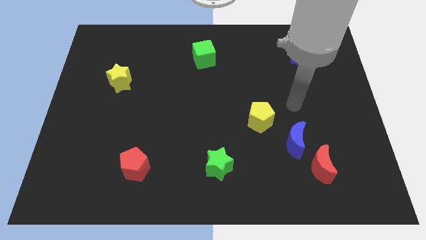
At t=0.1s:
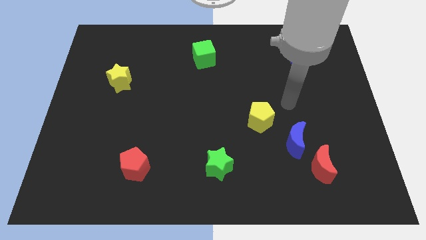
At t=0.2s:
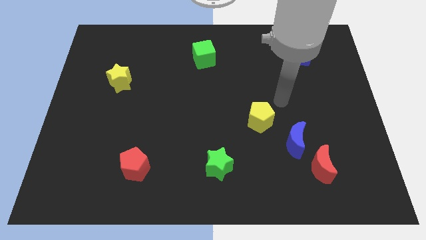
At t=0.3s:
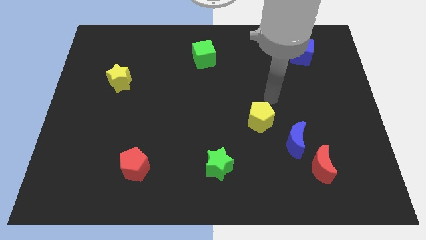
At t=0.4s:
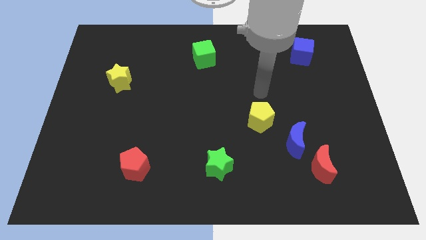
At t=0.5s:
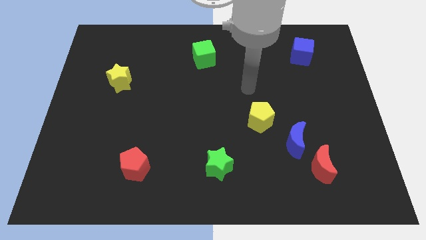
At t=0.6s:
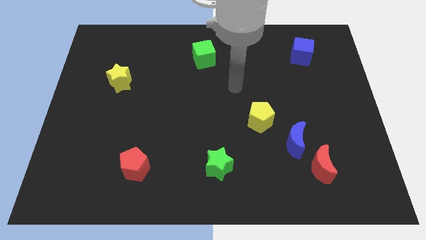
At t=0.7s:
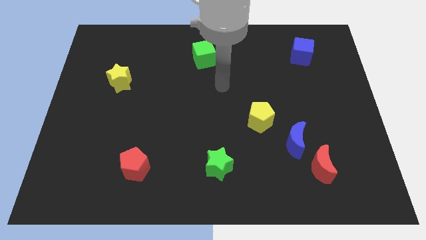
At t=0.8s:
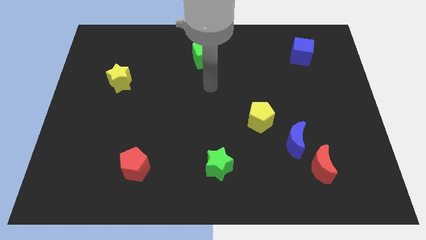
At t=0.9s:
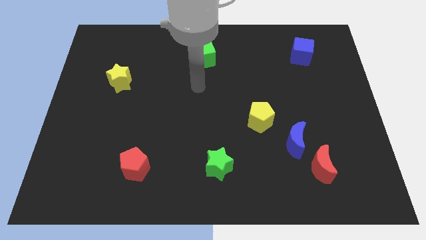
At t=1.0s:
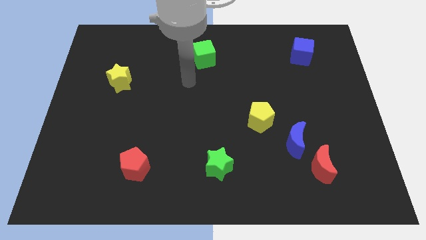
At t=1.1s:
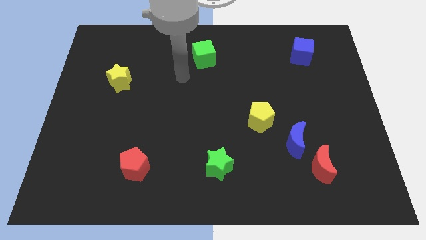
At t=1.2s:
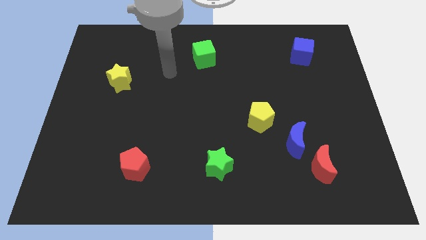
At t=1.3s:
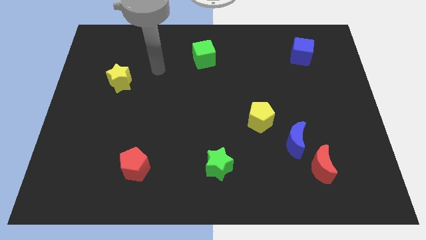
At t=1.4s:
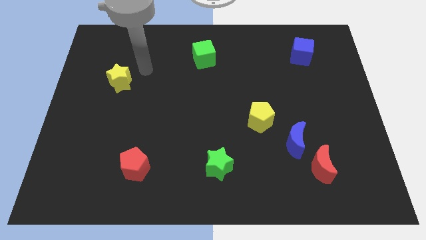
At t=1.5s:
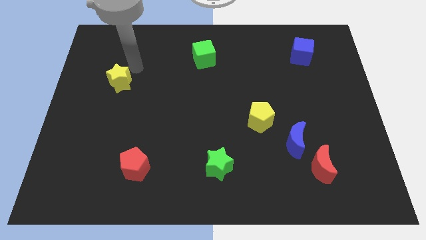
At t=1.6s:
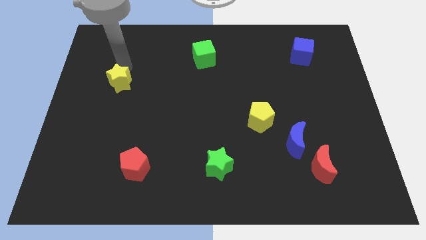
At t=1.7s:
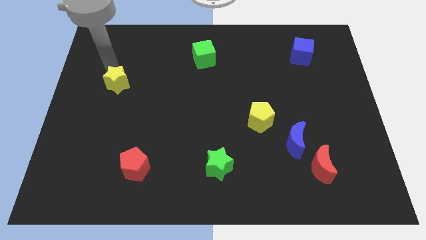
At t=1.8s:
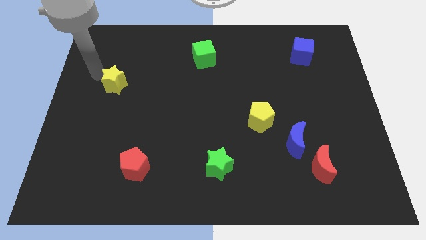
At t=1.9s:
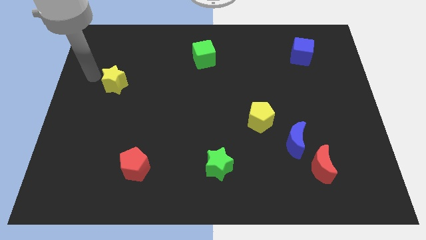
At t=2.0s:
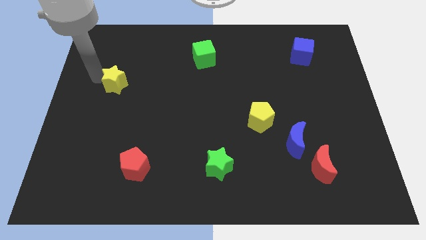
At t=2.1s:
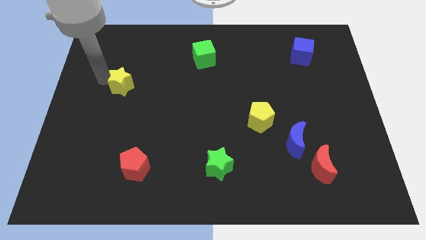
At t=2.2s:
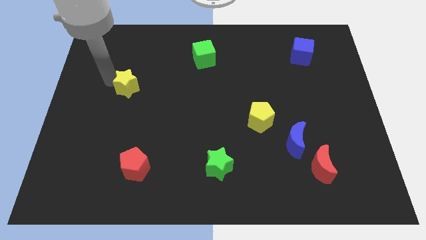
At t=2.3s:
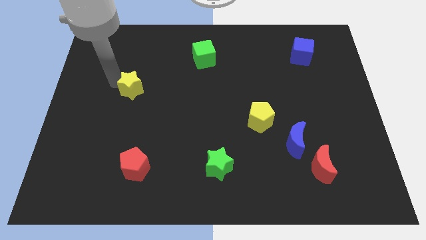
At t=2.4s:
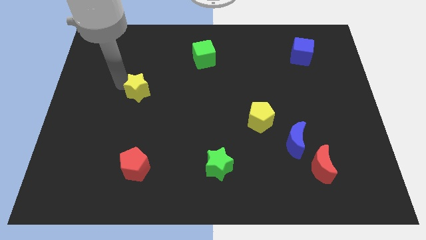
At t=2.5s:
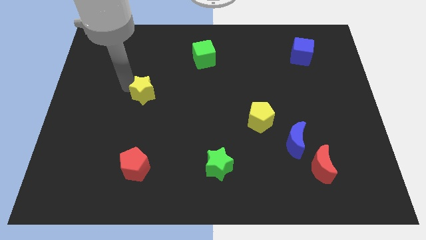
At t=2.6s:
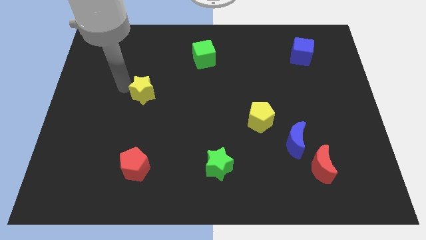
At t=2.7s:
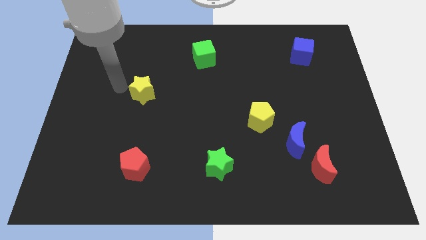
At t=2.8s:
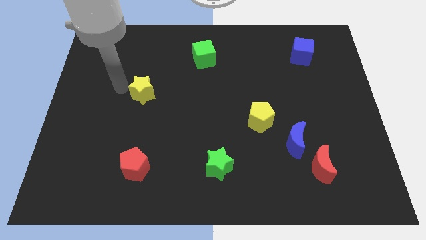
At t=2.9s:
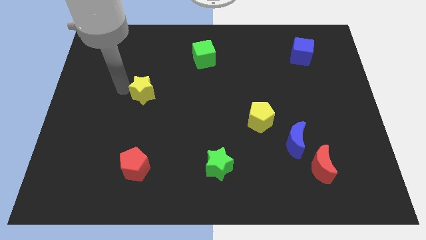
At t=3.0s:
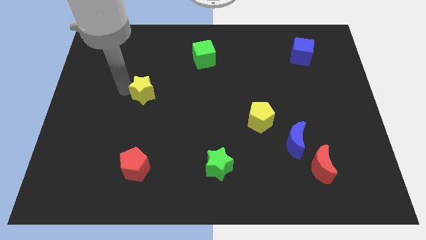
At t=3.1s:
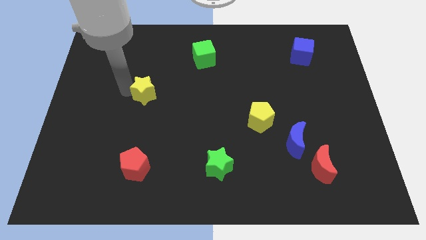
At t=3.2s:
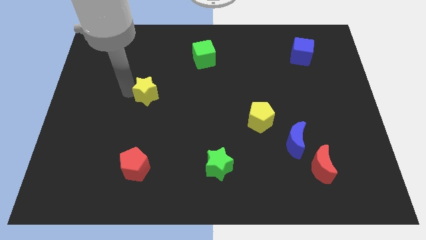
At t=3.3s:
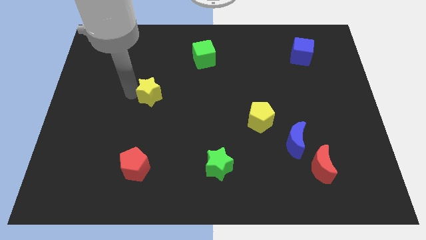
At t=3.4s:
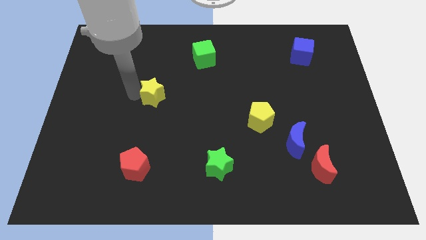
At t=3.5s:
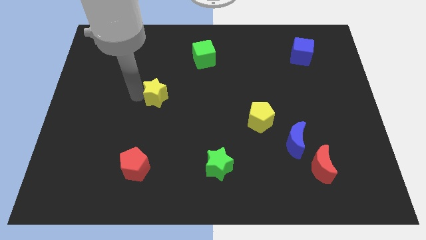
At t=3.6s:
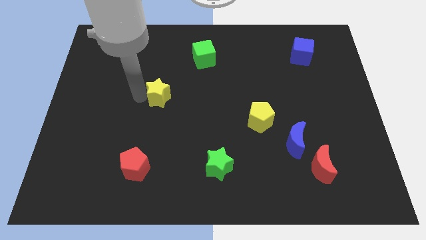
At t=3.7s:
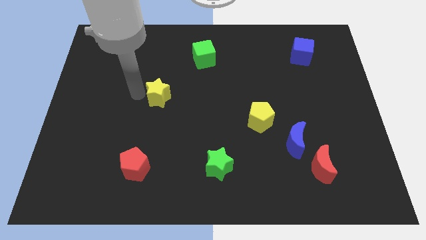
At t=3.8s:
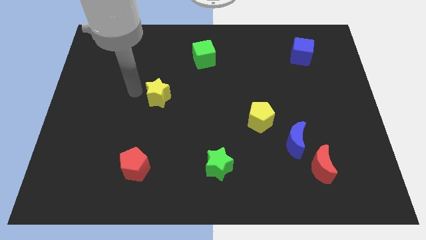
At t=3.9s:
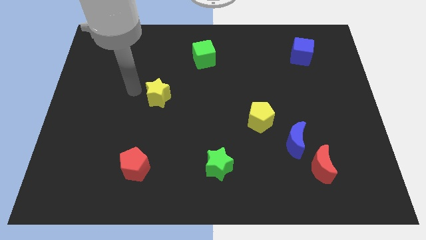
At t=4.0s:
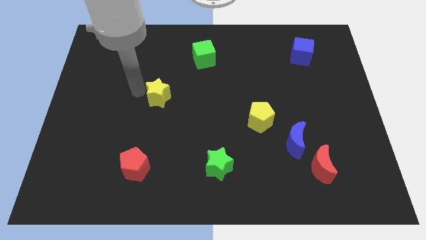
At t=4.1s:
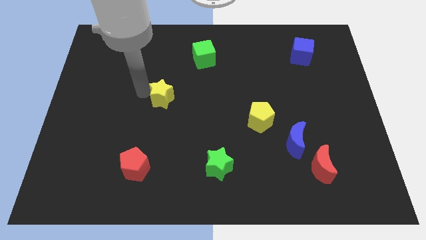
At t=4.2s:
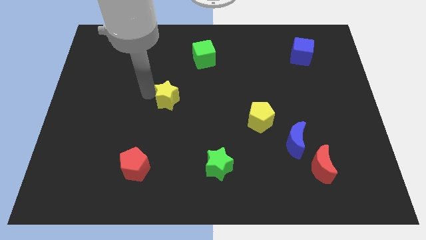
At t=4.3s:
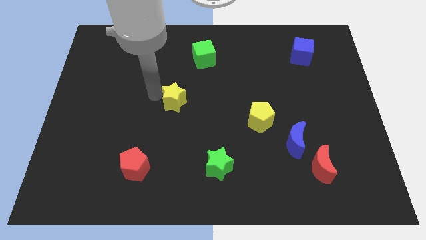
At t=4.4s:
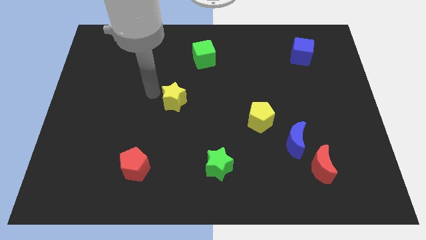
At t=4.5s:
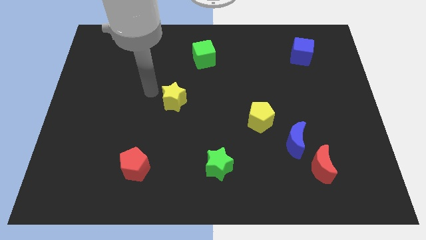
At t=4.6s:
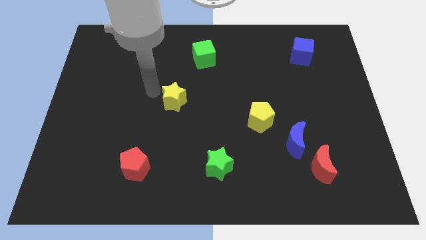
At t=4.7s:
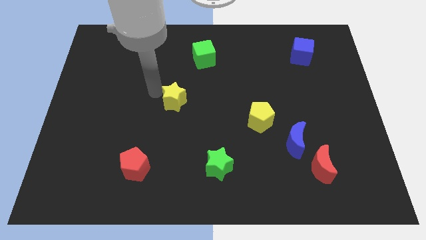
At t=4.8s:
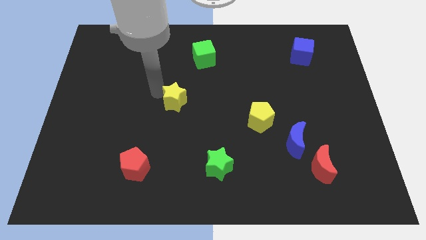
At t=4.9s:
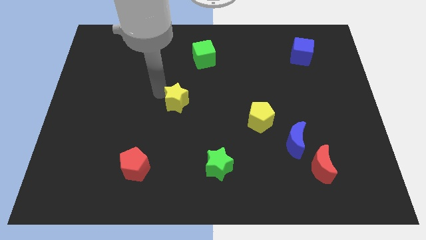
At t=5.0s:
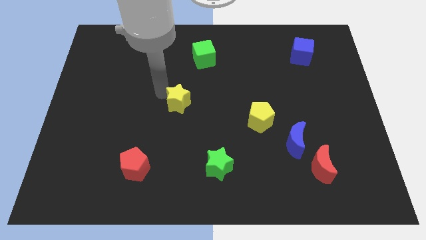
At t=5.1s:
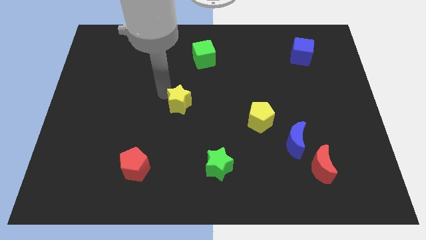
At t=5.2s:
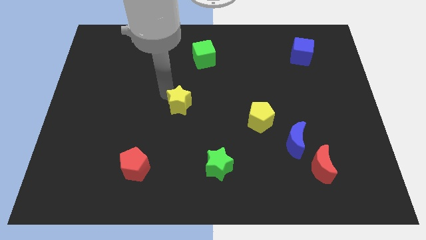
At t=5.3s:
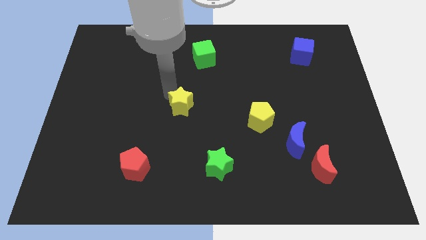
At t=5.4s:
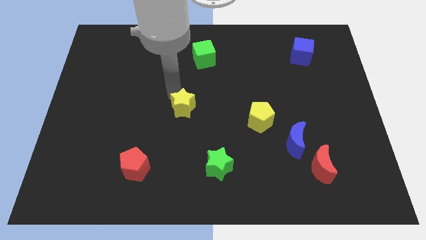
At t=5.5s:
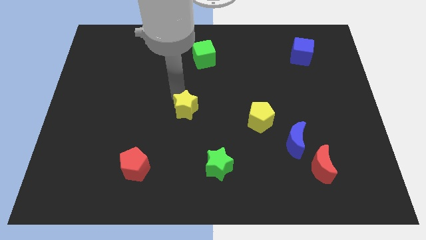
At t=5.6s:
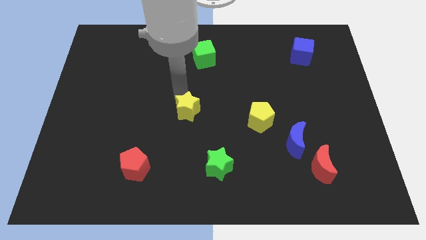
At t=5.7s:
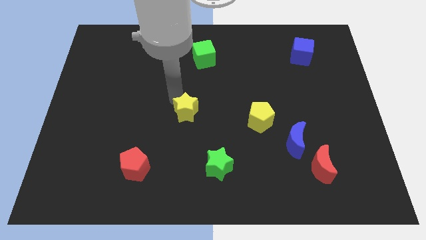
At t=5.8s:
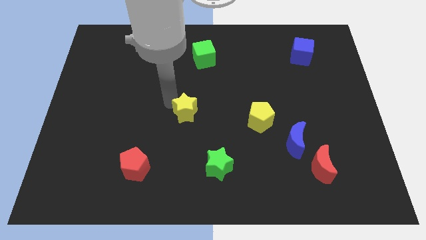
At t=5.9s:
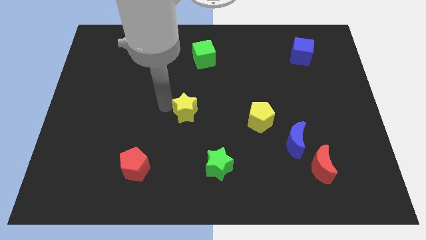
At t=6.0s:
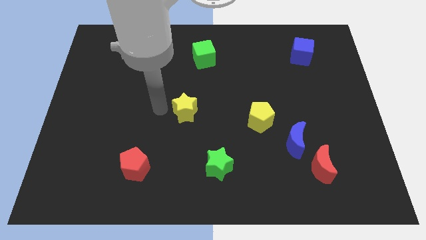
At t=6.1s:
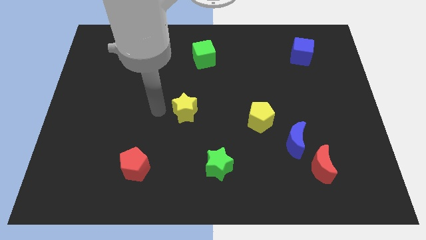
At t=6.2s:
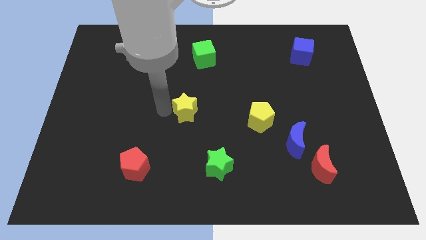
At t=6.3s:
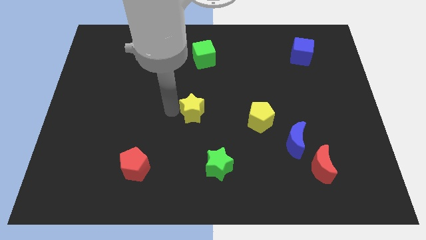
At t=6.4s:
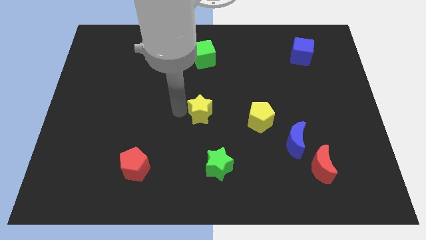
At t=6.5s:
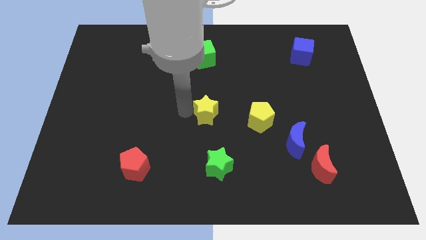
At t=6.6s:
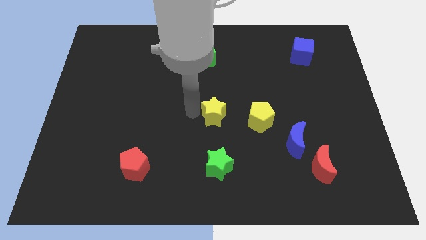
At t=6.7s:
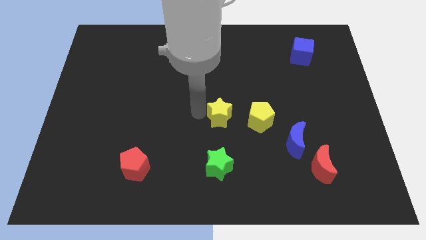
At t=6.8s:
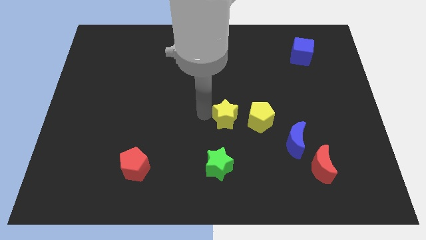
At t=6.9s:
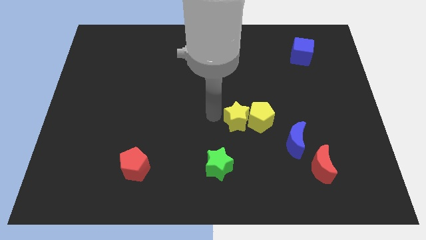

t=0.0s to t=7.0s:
slide the yellow star next to the yellow pentagon

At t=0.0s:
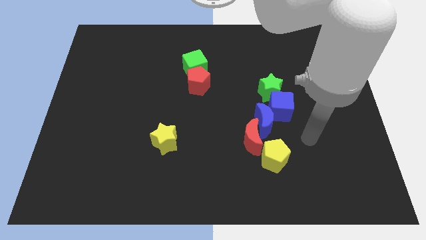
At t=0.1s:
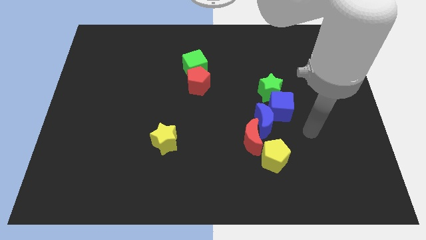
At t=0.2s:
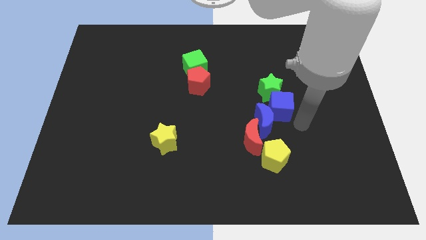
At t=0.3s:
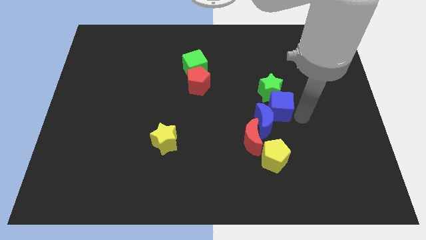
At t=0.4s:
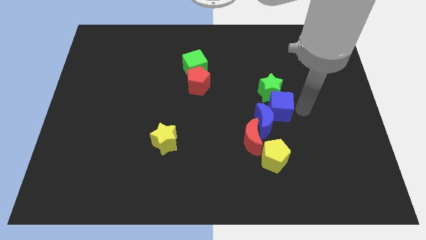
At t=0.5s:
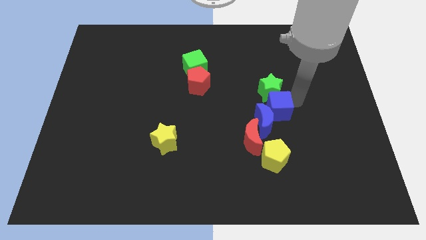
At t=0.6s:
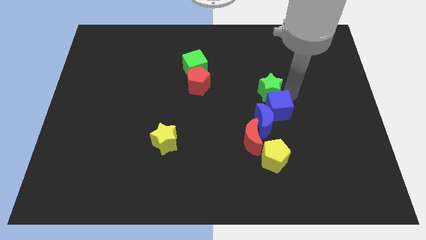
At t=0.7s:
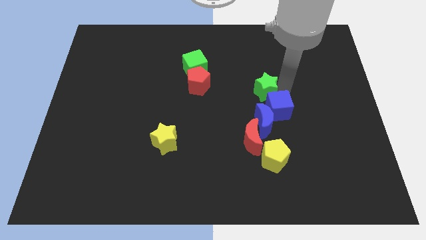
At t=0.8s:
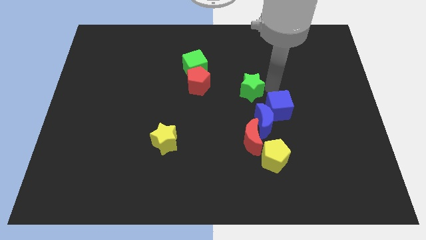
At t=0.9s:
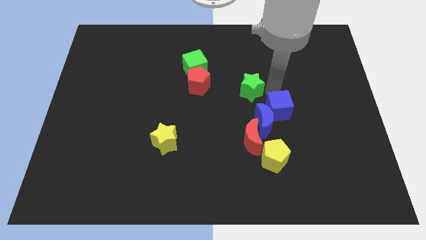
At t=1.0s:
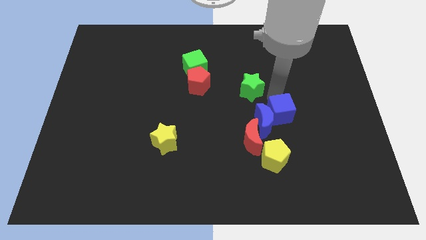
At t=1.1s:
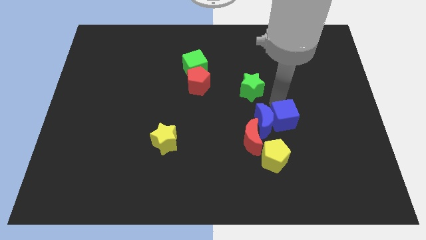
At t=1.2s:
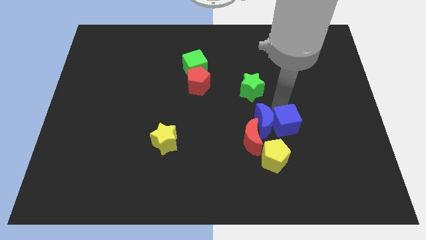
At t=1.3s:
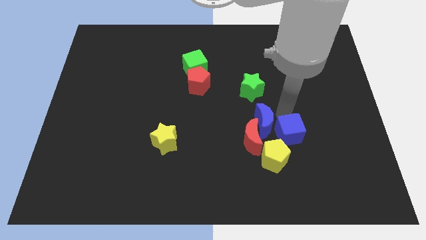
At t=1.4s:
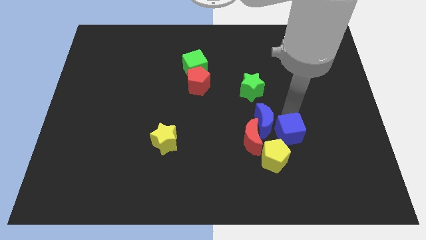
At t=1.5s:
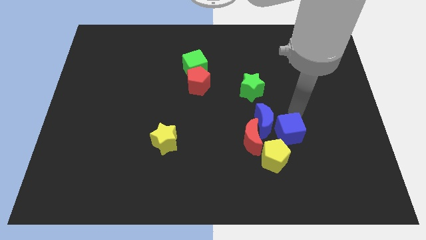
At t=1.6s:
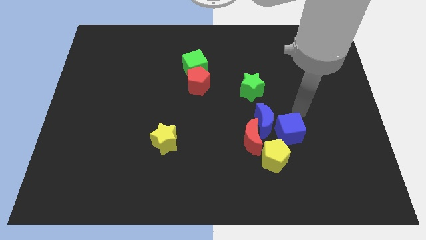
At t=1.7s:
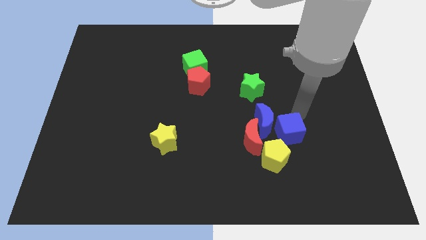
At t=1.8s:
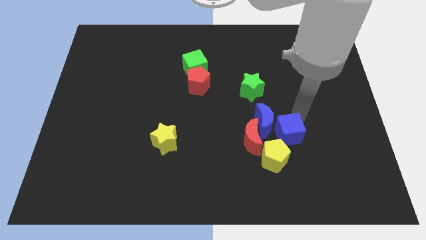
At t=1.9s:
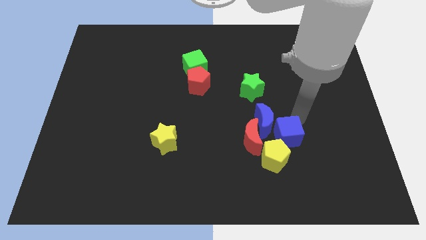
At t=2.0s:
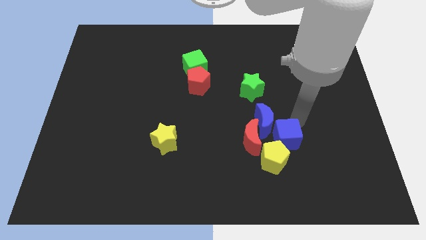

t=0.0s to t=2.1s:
slide the blue cube next to the yellow pentagon
